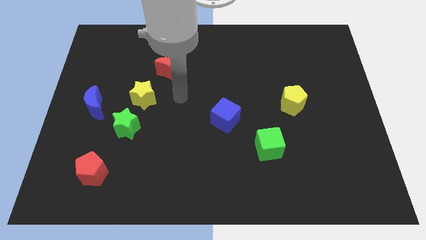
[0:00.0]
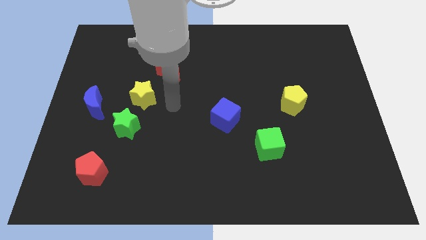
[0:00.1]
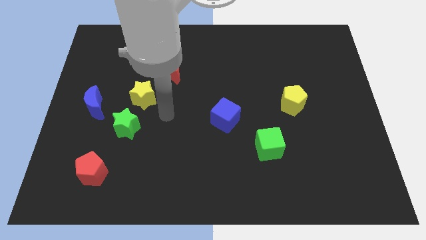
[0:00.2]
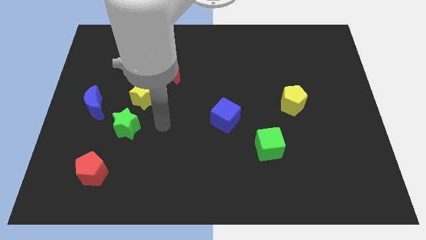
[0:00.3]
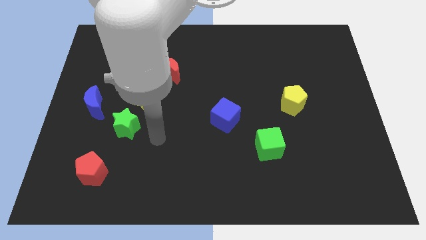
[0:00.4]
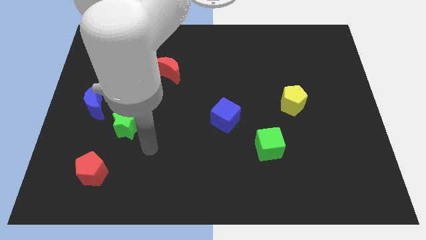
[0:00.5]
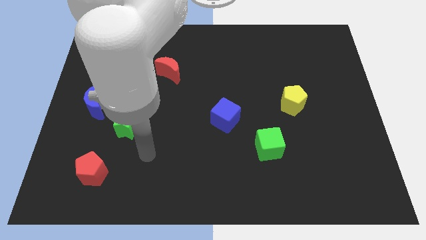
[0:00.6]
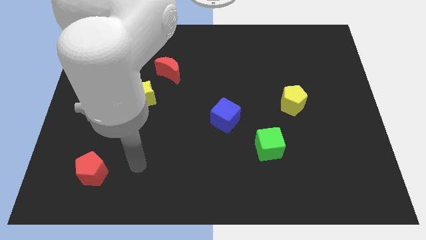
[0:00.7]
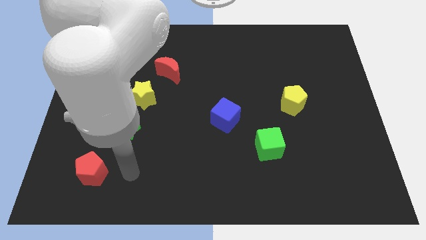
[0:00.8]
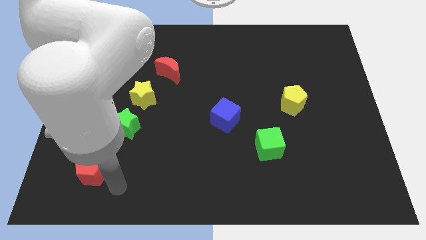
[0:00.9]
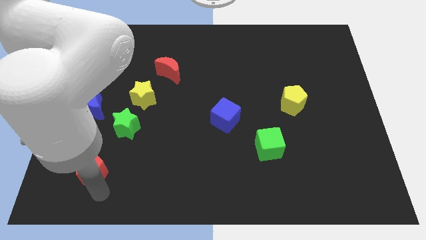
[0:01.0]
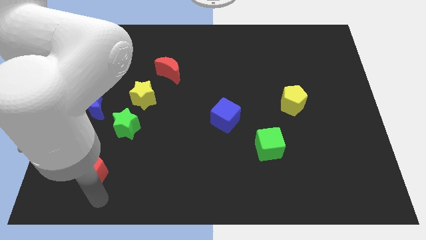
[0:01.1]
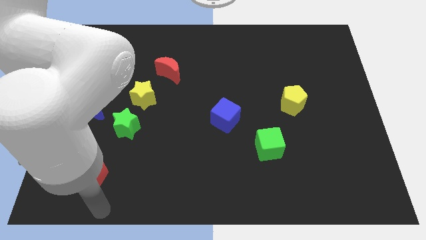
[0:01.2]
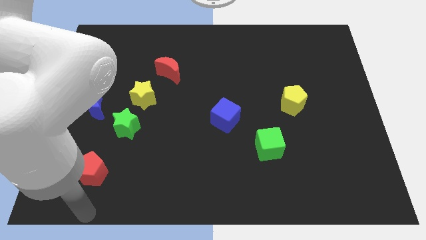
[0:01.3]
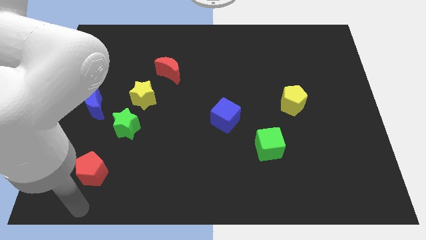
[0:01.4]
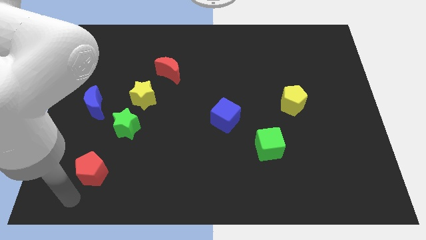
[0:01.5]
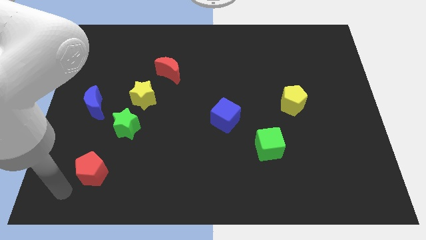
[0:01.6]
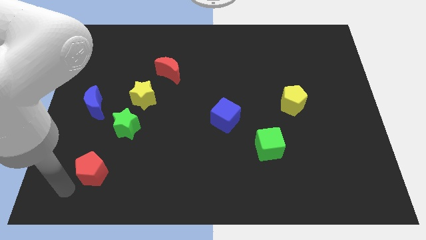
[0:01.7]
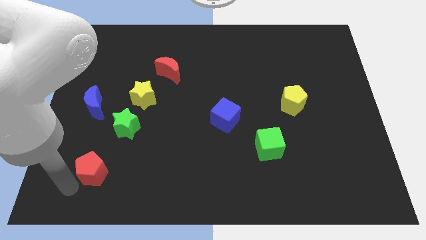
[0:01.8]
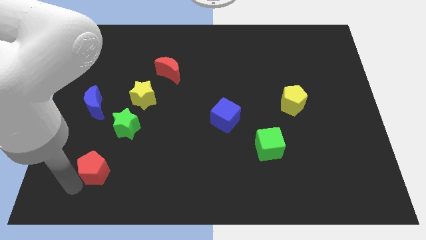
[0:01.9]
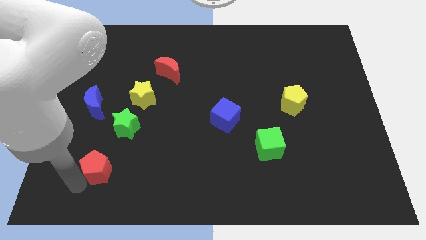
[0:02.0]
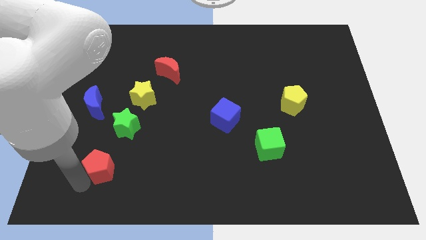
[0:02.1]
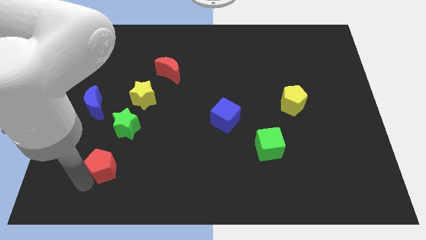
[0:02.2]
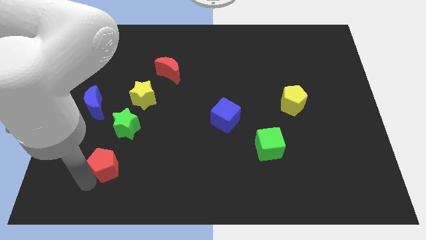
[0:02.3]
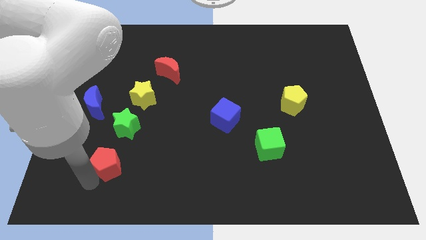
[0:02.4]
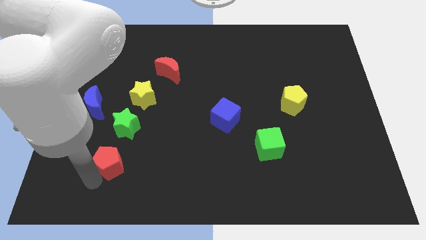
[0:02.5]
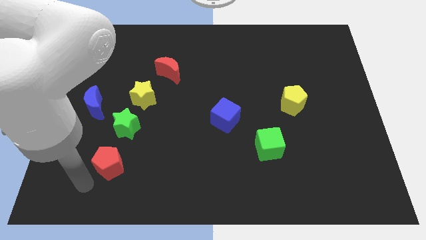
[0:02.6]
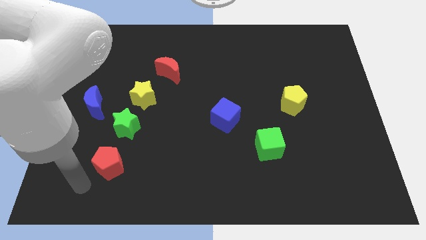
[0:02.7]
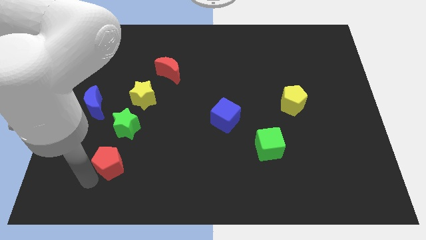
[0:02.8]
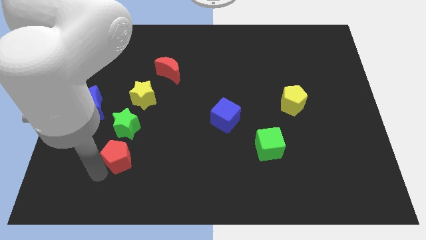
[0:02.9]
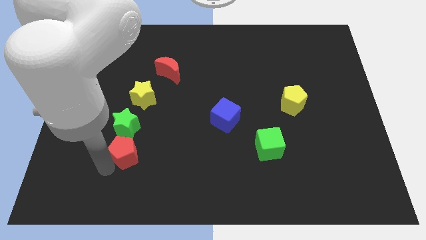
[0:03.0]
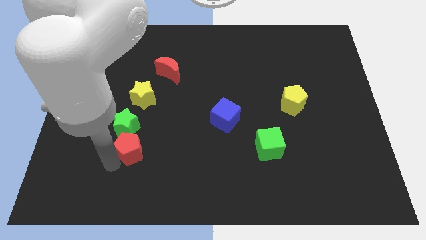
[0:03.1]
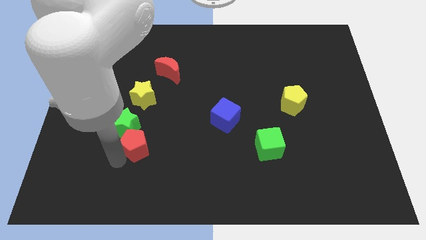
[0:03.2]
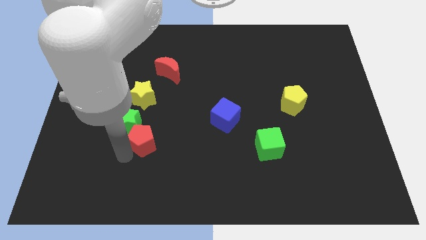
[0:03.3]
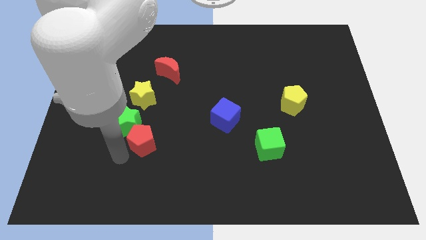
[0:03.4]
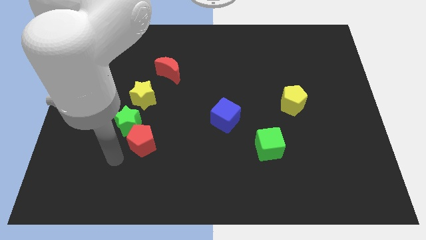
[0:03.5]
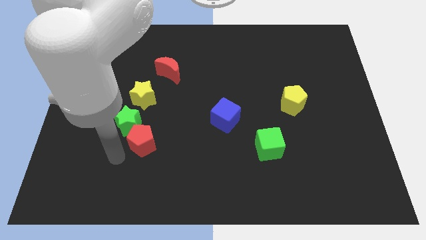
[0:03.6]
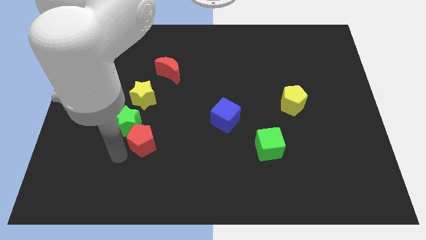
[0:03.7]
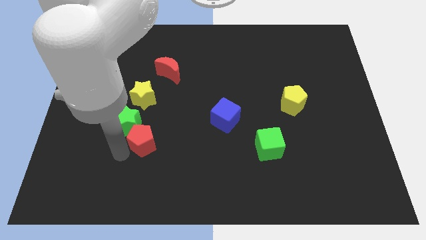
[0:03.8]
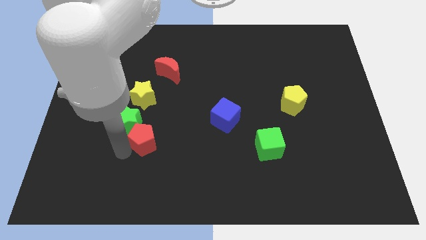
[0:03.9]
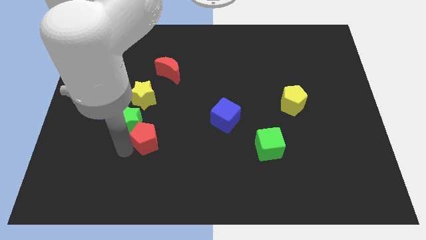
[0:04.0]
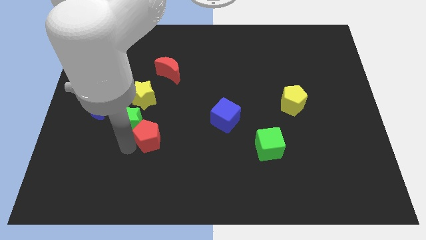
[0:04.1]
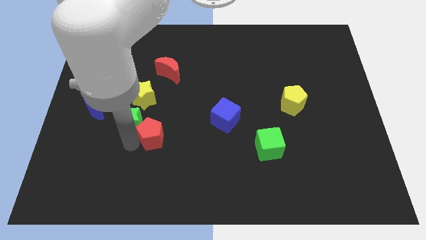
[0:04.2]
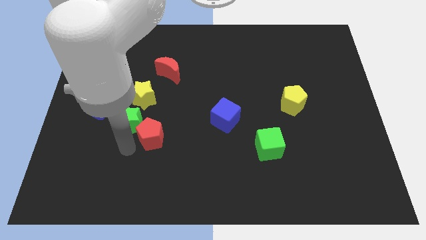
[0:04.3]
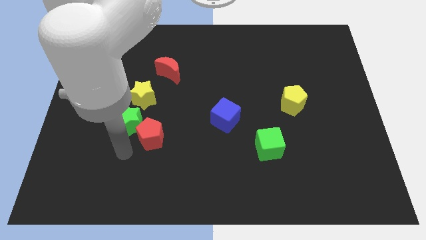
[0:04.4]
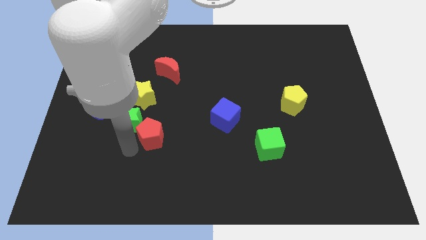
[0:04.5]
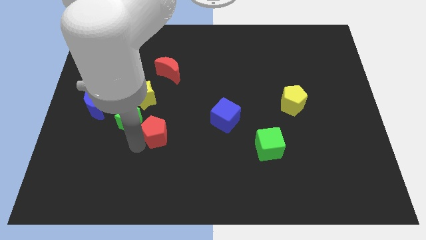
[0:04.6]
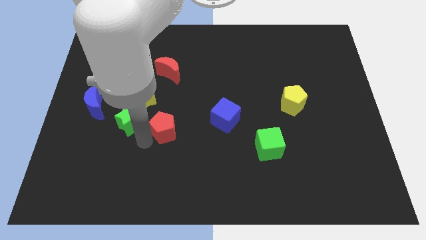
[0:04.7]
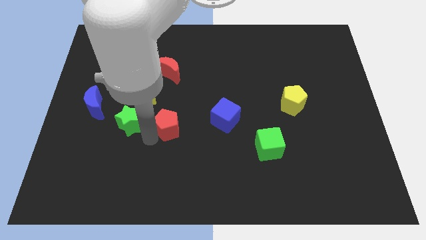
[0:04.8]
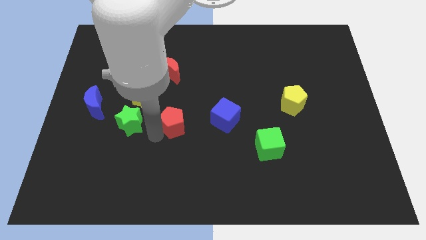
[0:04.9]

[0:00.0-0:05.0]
slide the red pentagon to the center

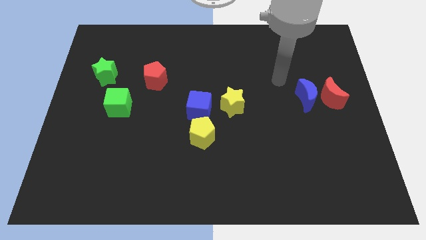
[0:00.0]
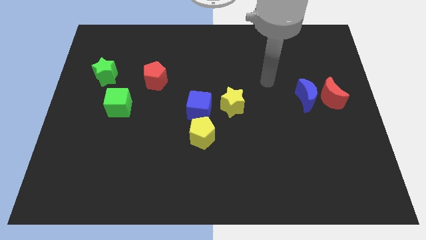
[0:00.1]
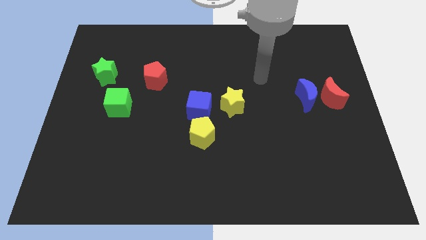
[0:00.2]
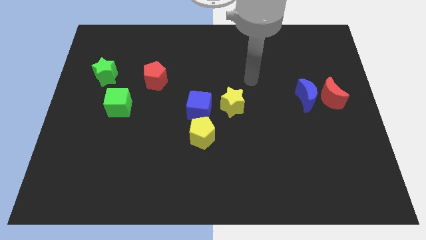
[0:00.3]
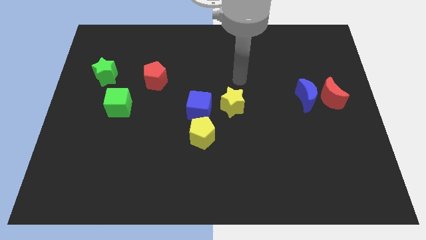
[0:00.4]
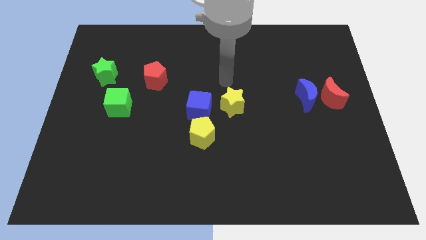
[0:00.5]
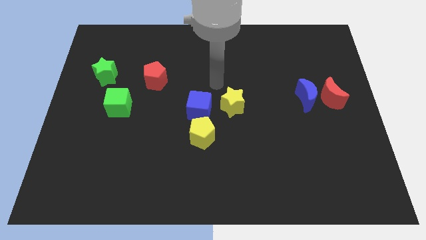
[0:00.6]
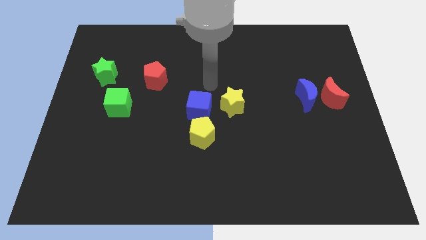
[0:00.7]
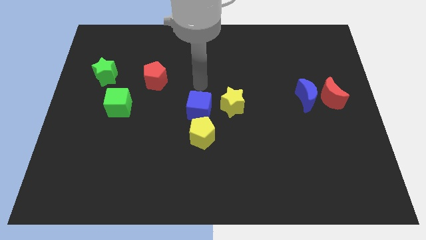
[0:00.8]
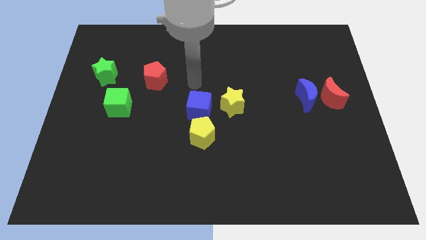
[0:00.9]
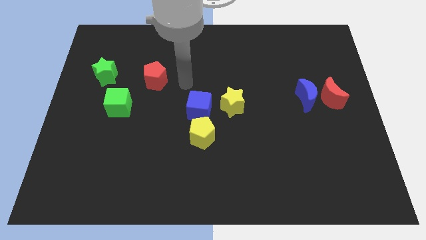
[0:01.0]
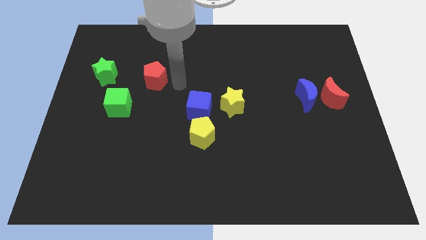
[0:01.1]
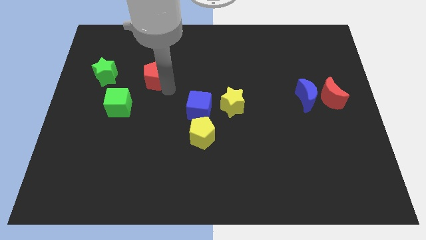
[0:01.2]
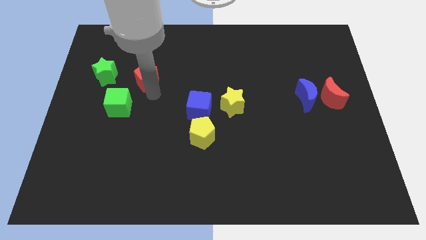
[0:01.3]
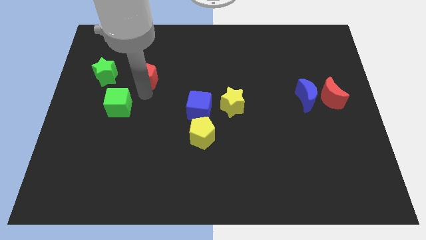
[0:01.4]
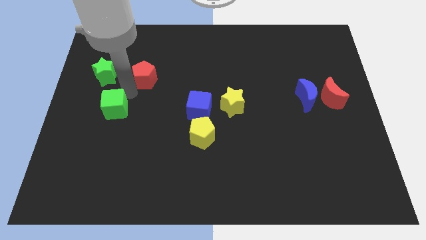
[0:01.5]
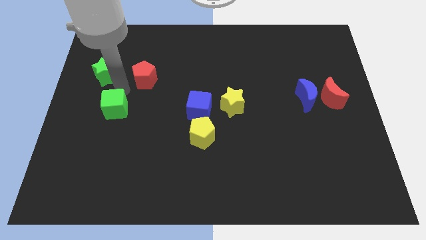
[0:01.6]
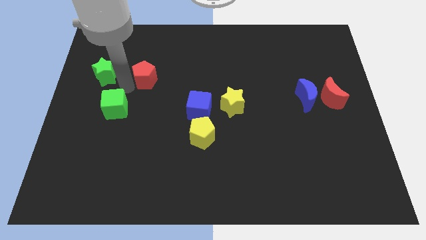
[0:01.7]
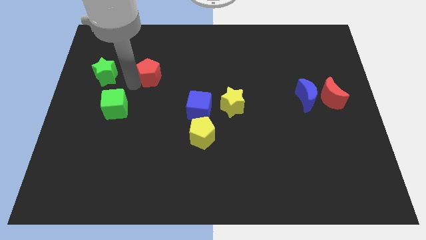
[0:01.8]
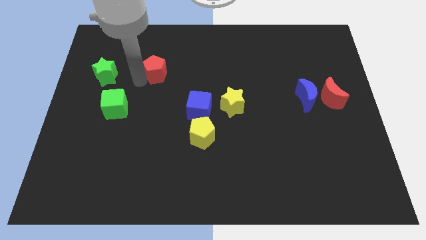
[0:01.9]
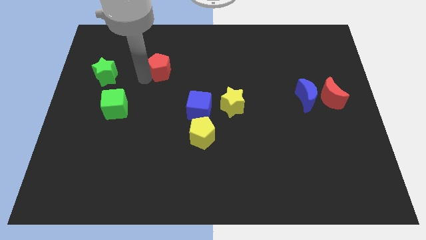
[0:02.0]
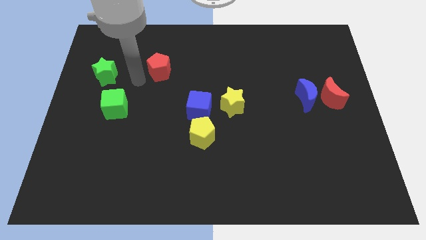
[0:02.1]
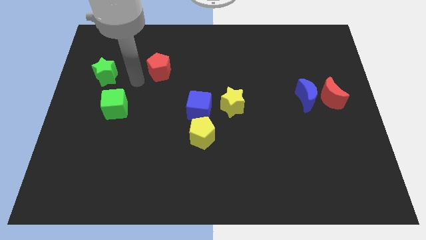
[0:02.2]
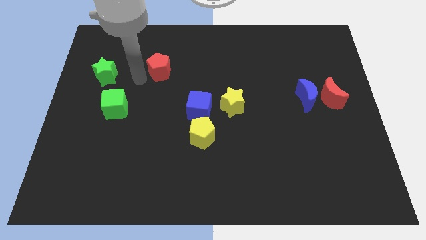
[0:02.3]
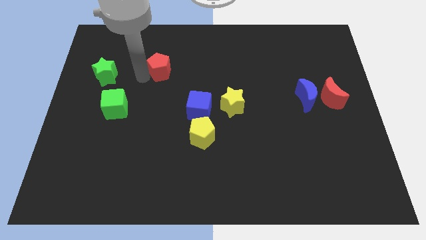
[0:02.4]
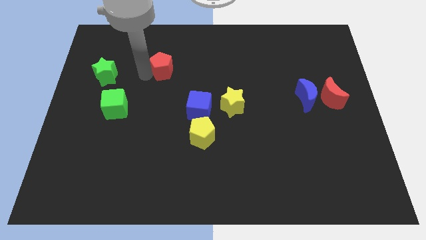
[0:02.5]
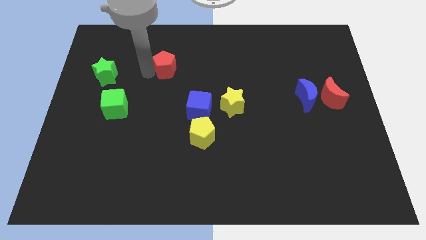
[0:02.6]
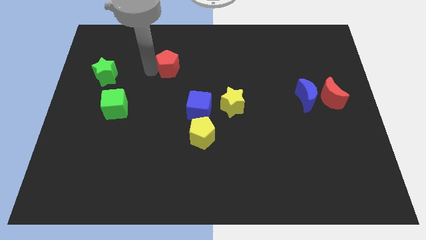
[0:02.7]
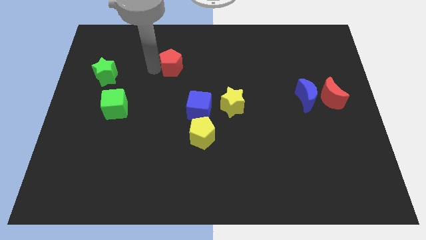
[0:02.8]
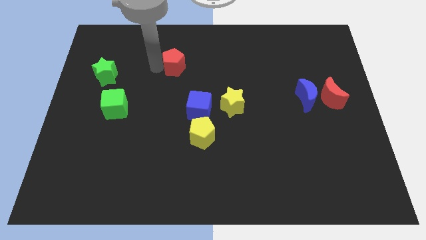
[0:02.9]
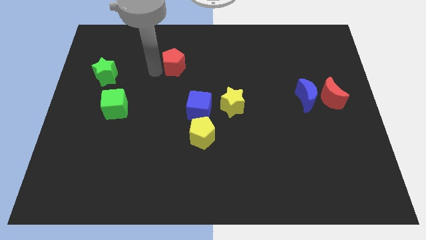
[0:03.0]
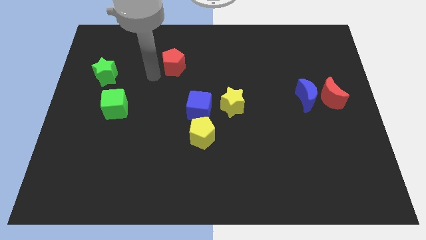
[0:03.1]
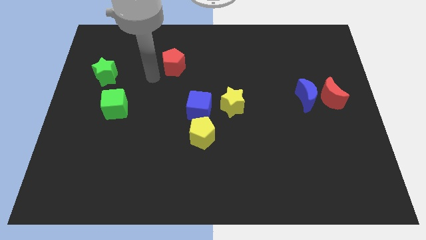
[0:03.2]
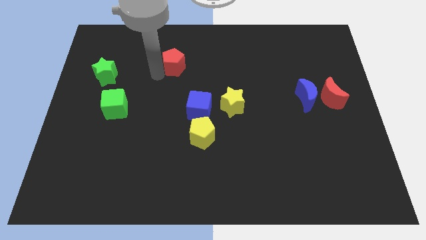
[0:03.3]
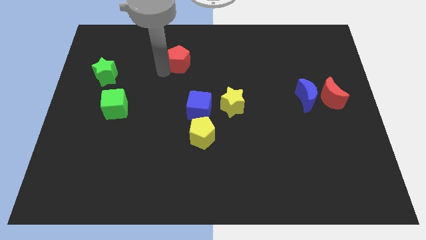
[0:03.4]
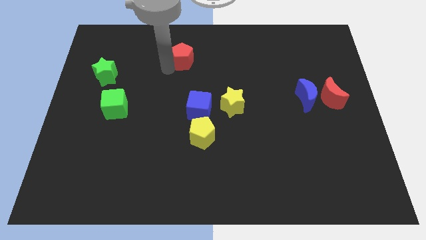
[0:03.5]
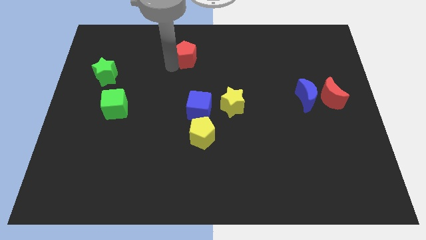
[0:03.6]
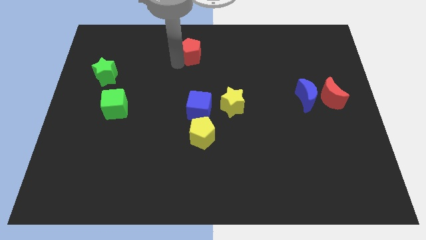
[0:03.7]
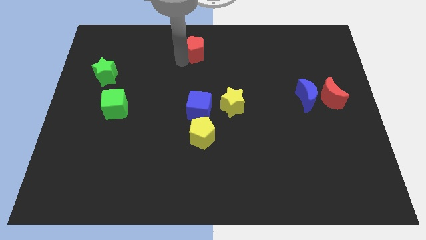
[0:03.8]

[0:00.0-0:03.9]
move the red pentagon to the top
